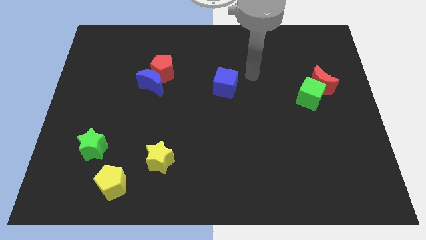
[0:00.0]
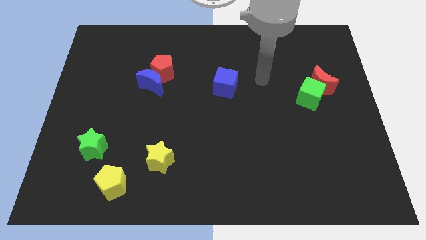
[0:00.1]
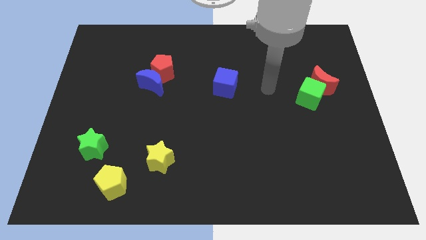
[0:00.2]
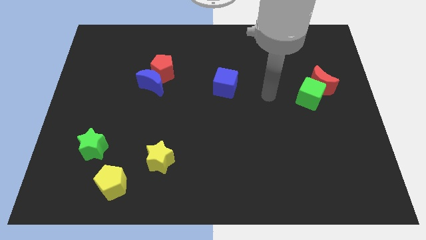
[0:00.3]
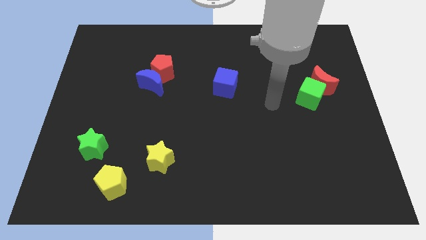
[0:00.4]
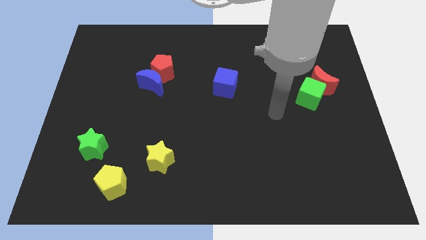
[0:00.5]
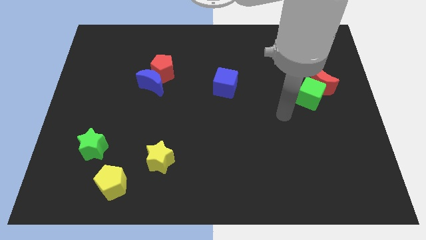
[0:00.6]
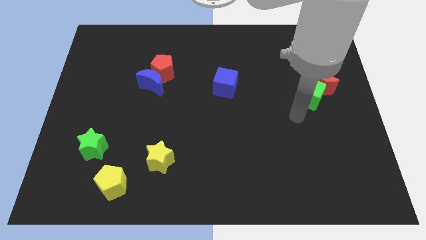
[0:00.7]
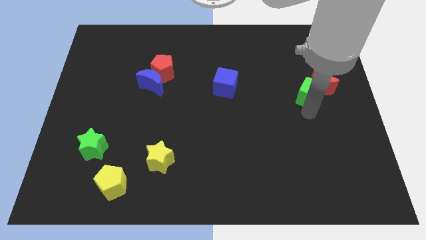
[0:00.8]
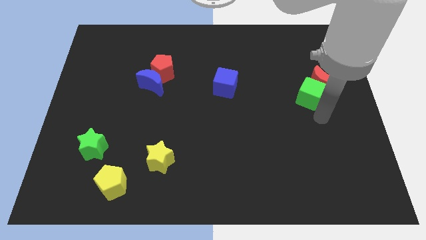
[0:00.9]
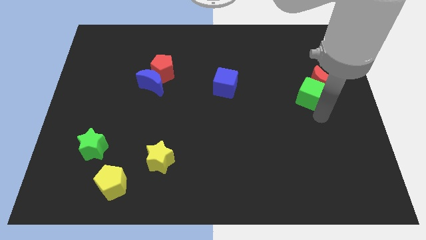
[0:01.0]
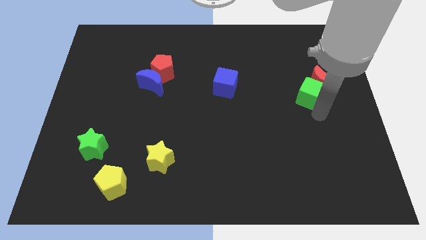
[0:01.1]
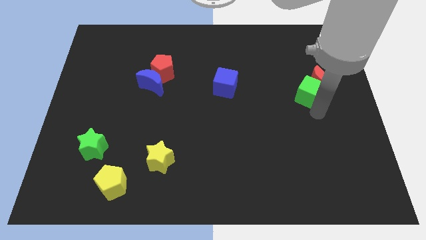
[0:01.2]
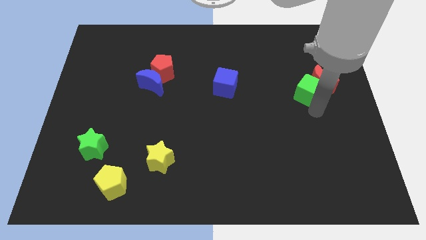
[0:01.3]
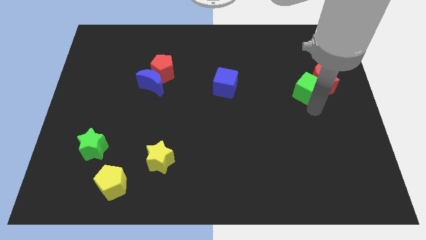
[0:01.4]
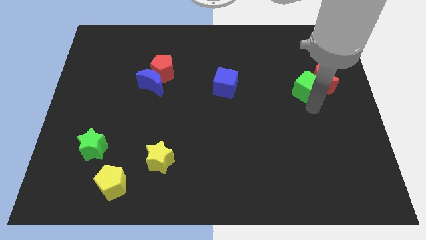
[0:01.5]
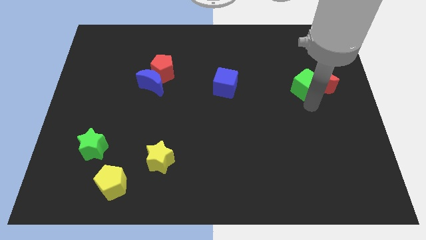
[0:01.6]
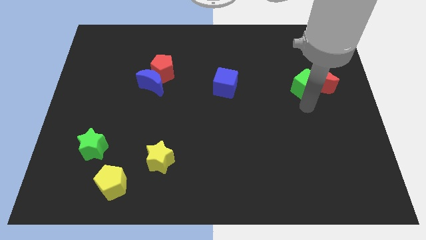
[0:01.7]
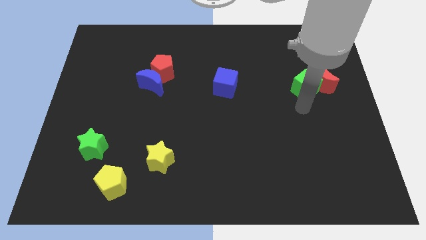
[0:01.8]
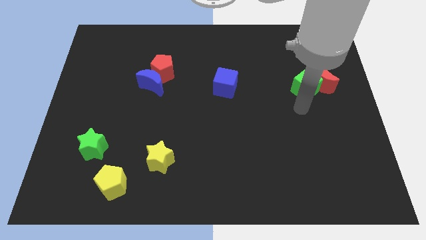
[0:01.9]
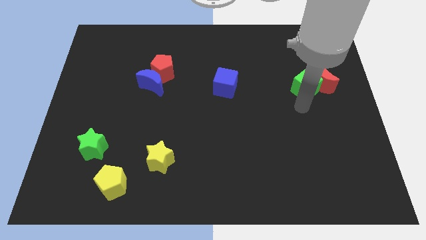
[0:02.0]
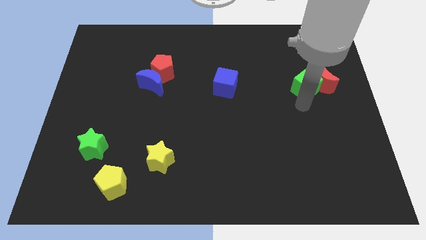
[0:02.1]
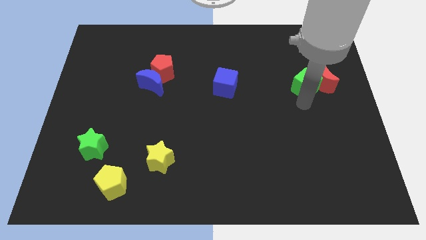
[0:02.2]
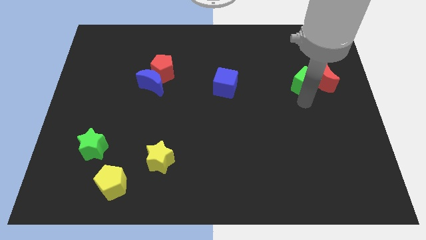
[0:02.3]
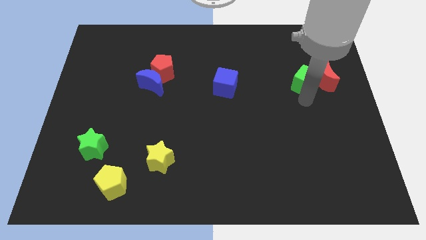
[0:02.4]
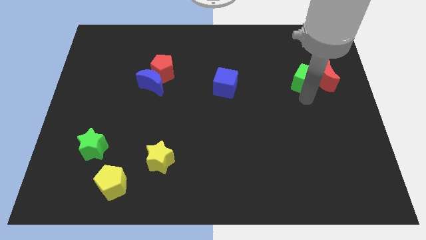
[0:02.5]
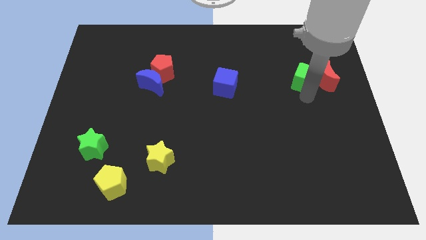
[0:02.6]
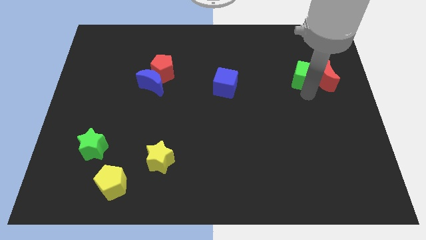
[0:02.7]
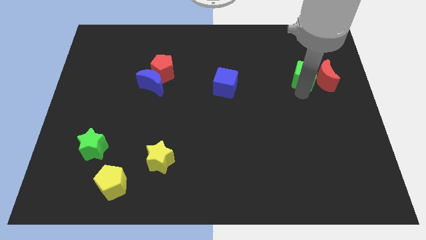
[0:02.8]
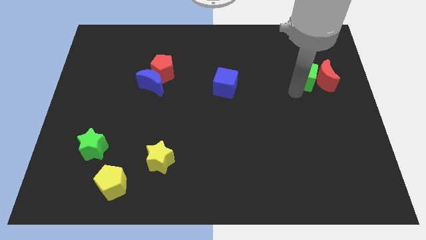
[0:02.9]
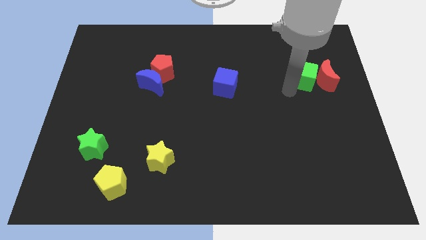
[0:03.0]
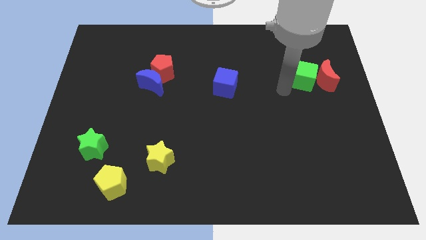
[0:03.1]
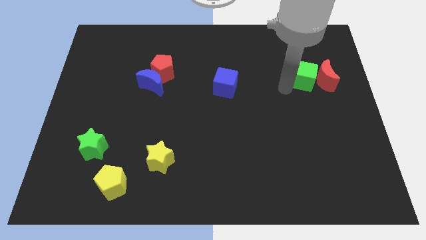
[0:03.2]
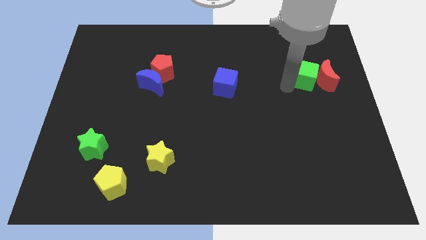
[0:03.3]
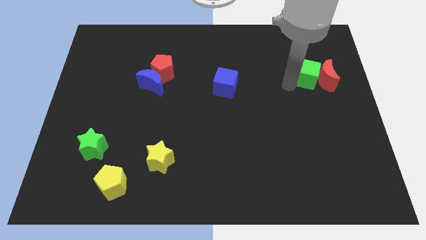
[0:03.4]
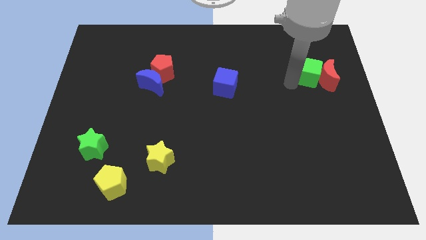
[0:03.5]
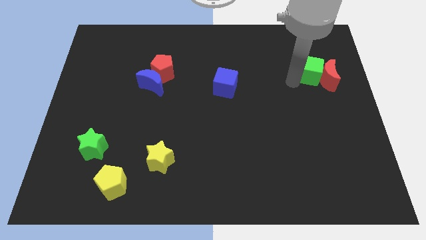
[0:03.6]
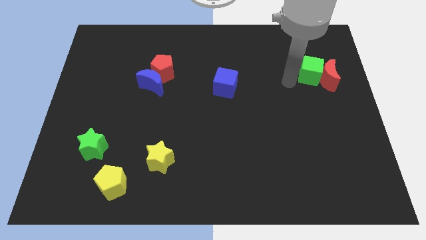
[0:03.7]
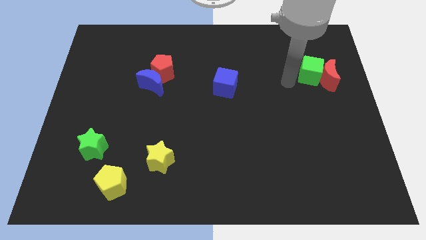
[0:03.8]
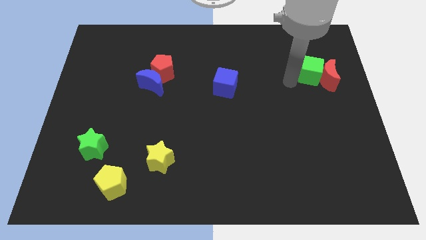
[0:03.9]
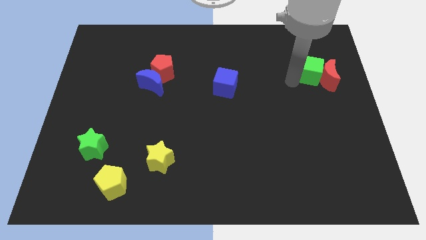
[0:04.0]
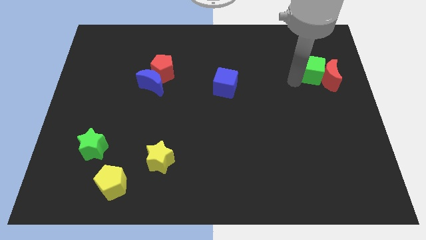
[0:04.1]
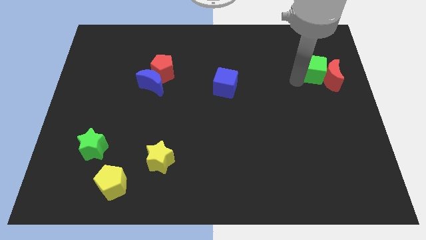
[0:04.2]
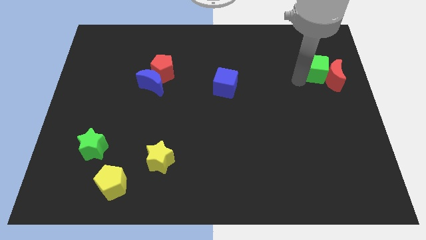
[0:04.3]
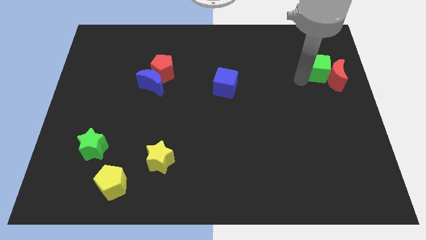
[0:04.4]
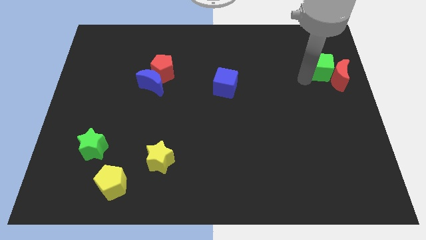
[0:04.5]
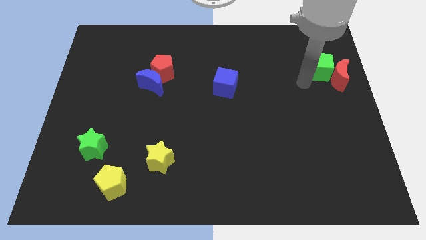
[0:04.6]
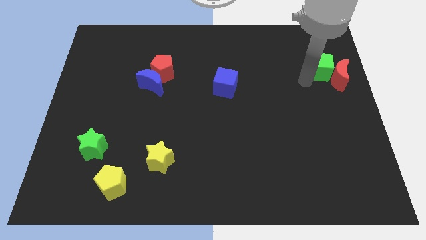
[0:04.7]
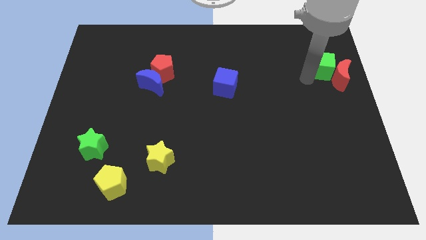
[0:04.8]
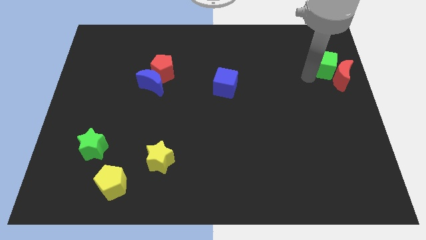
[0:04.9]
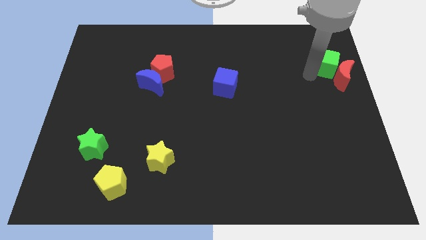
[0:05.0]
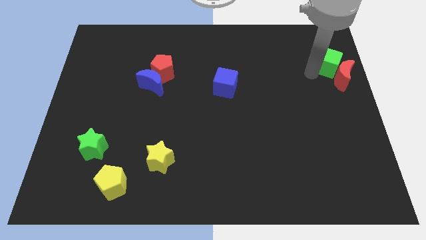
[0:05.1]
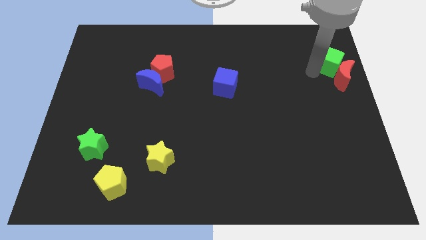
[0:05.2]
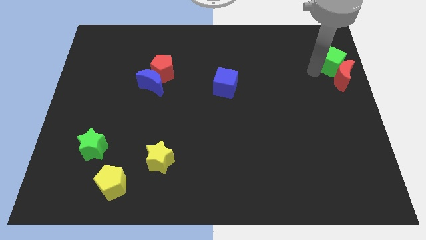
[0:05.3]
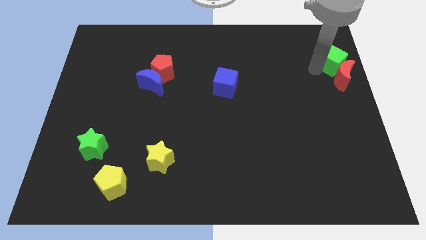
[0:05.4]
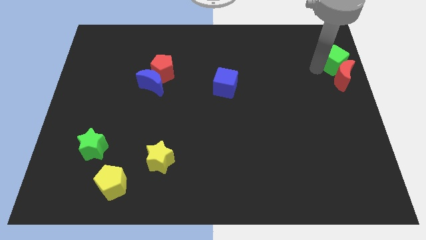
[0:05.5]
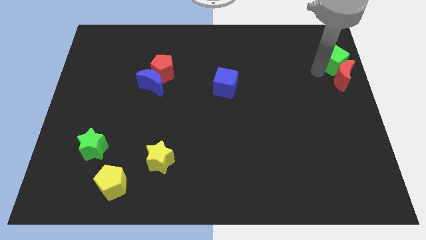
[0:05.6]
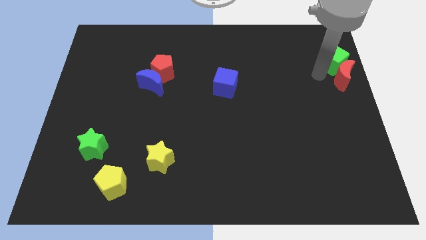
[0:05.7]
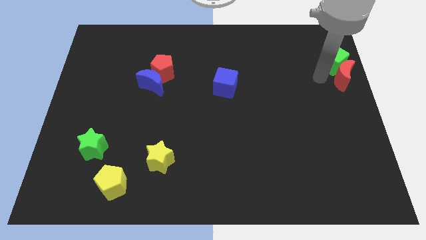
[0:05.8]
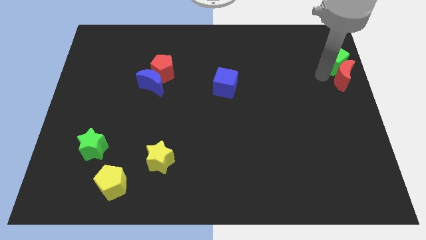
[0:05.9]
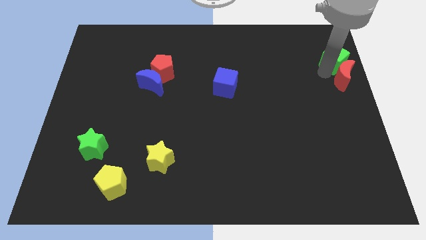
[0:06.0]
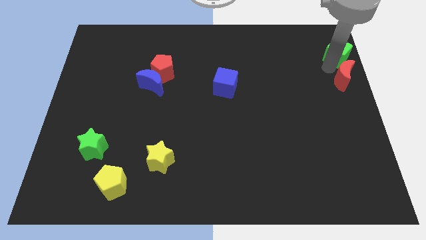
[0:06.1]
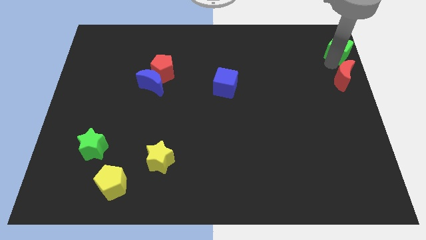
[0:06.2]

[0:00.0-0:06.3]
push the green cube to the top right of the board
